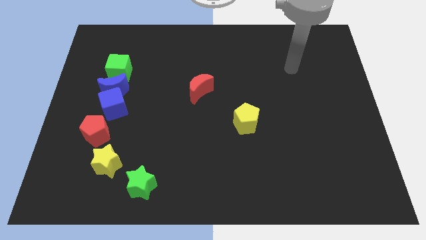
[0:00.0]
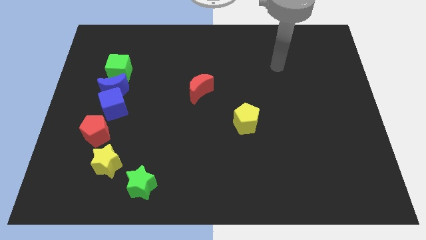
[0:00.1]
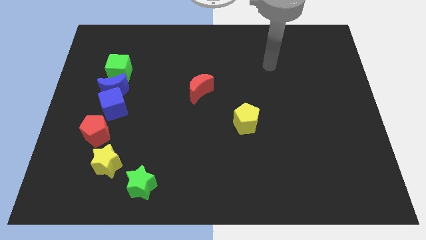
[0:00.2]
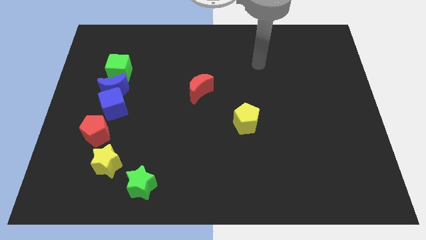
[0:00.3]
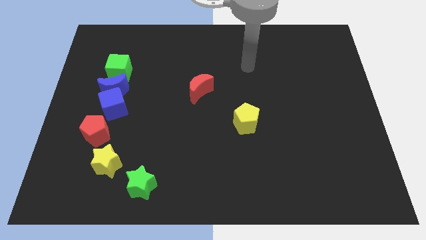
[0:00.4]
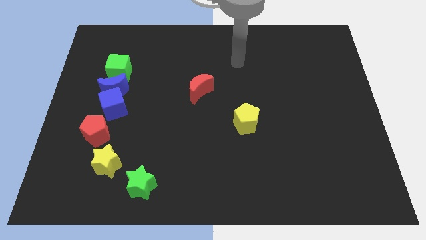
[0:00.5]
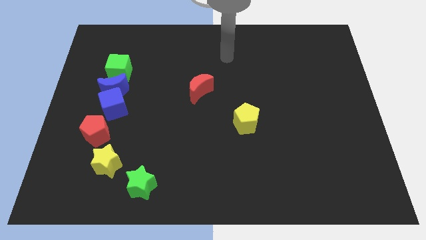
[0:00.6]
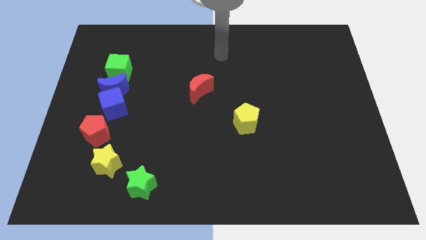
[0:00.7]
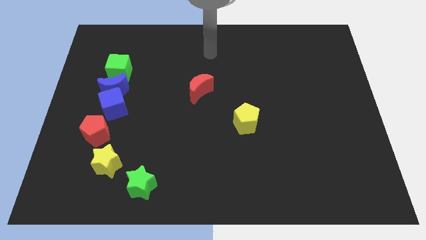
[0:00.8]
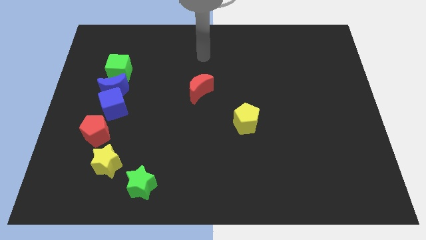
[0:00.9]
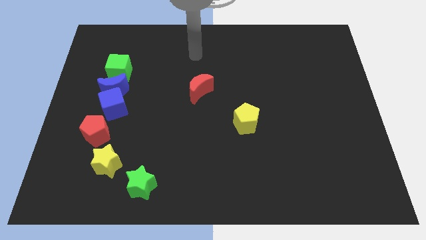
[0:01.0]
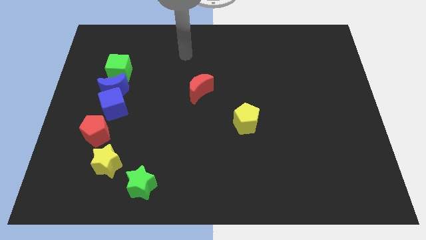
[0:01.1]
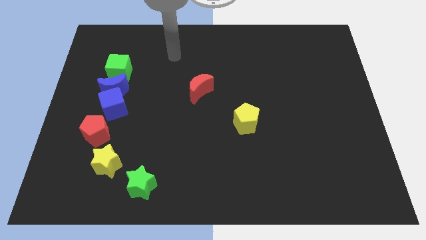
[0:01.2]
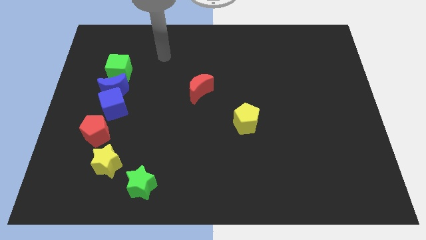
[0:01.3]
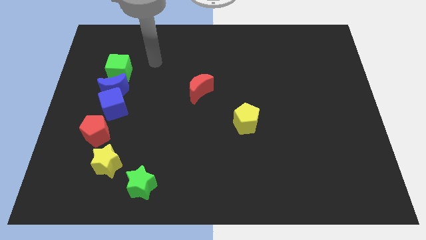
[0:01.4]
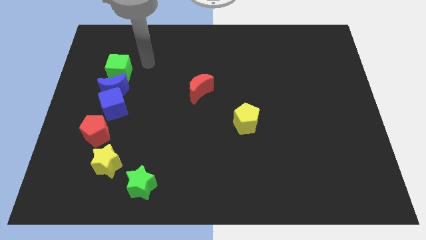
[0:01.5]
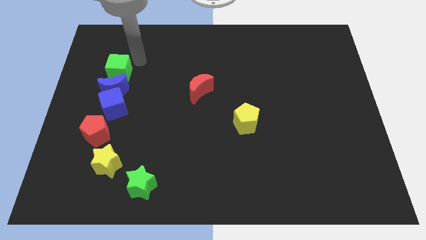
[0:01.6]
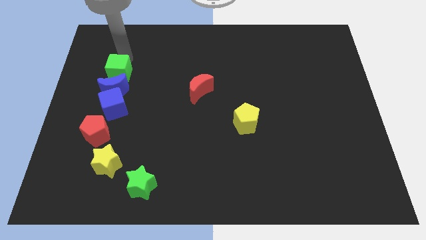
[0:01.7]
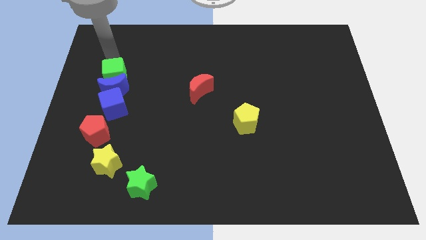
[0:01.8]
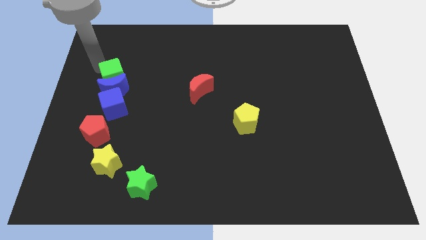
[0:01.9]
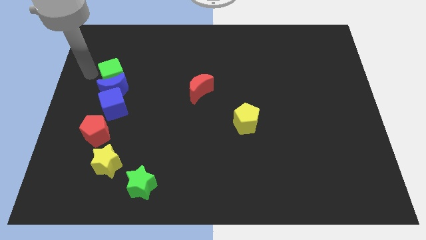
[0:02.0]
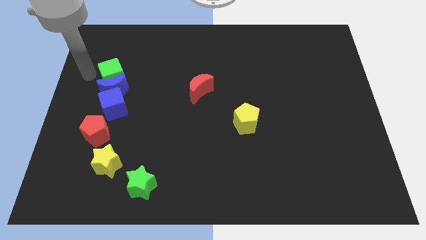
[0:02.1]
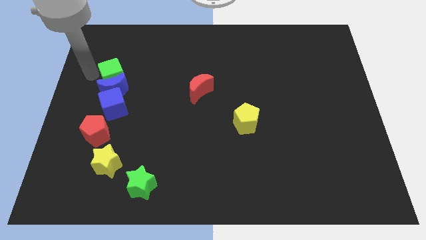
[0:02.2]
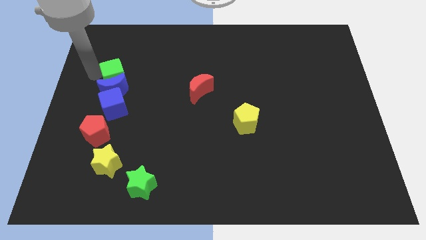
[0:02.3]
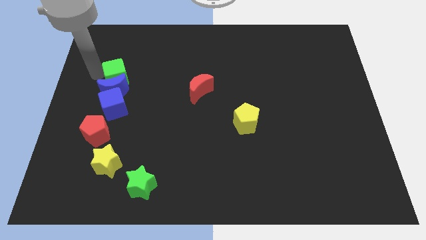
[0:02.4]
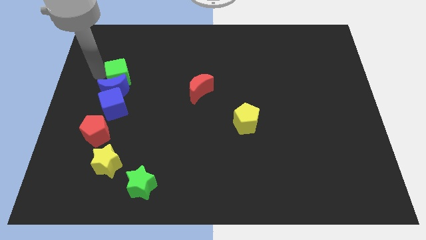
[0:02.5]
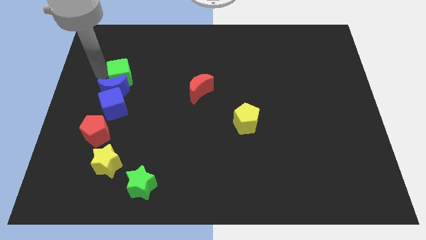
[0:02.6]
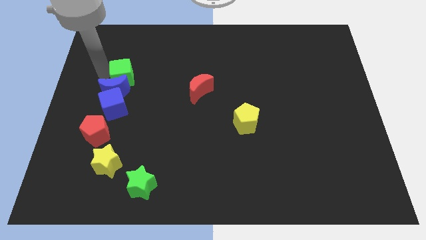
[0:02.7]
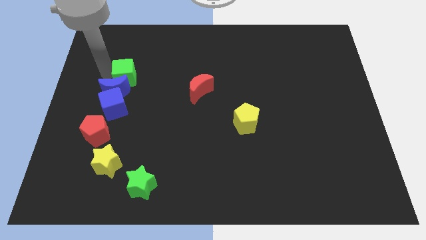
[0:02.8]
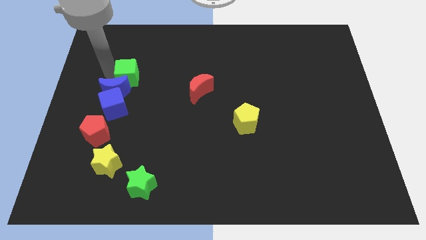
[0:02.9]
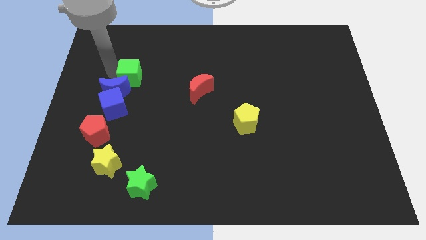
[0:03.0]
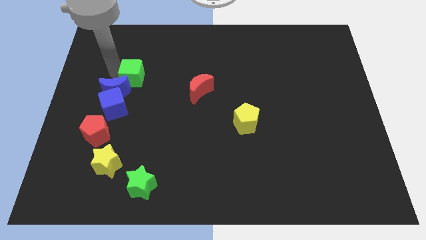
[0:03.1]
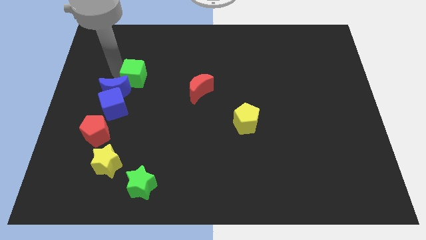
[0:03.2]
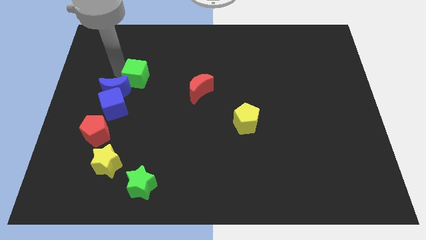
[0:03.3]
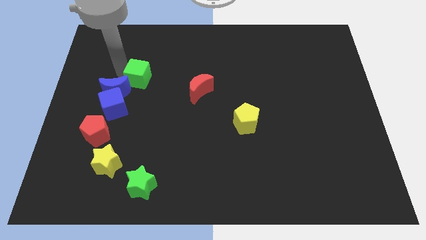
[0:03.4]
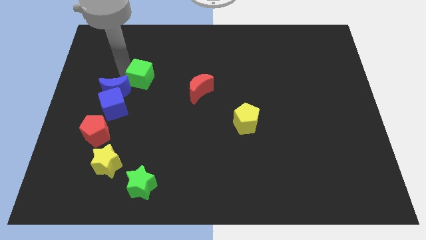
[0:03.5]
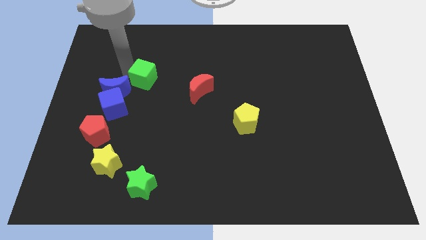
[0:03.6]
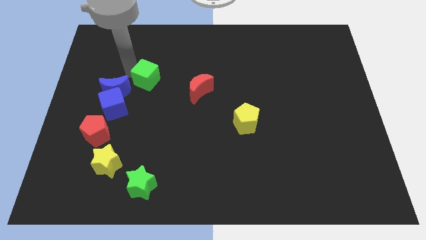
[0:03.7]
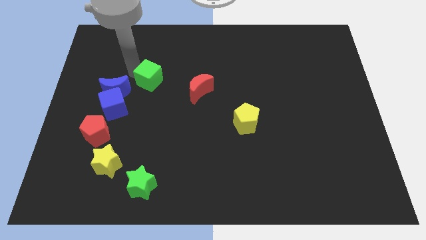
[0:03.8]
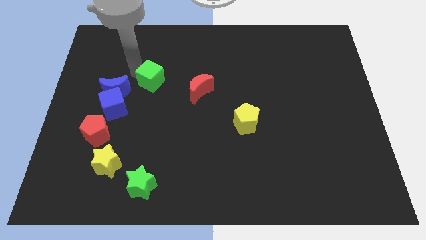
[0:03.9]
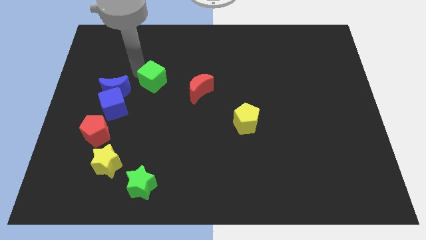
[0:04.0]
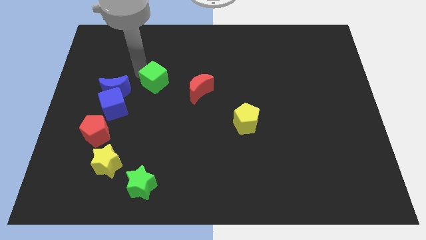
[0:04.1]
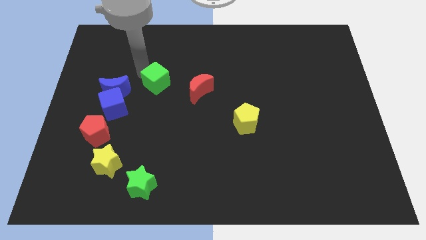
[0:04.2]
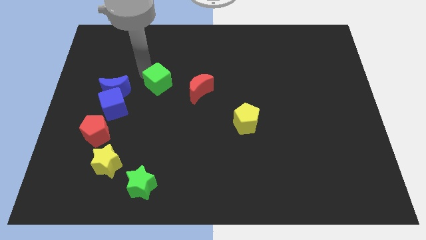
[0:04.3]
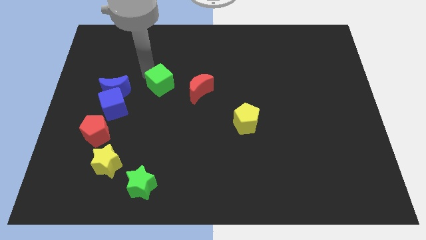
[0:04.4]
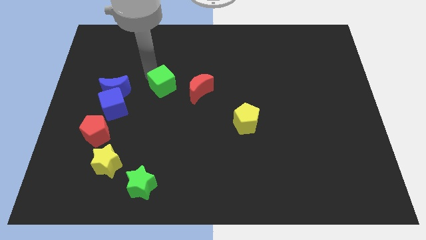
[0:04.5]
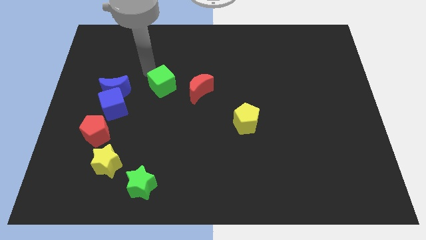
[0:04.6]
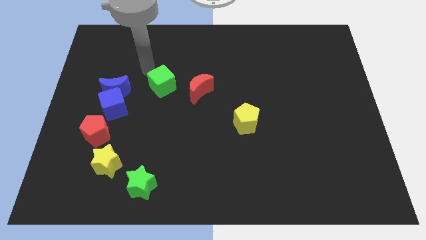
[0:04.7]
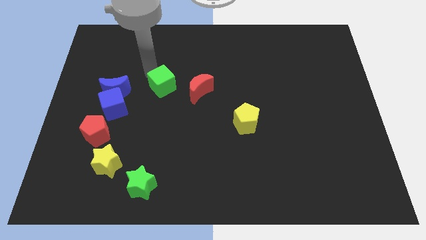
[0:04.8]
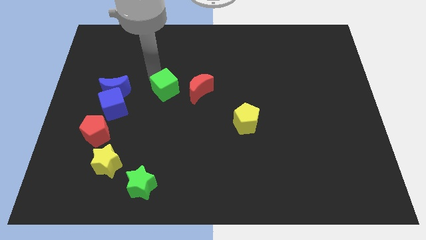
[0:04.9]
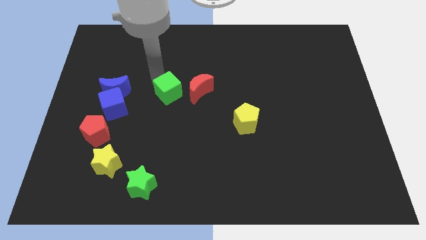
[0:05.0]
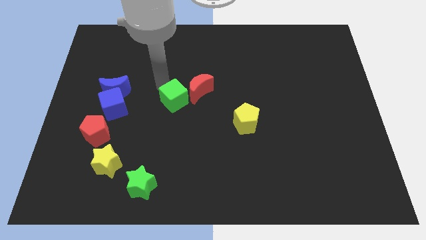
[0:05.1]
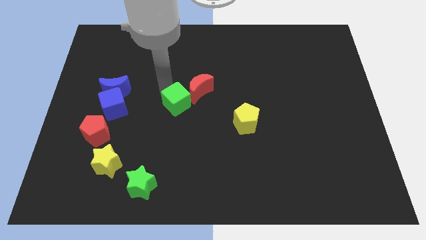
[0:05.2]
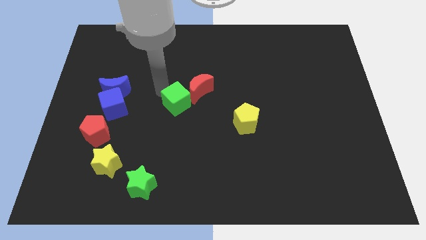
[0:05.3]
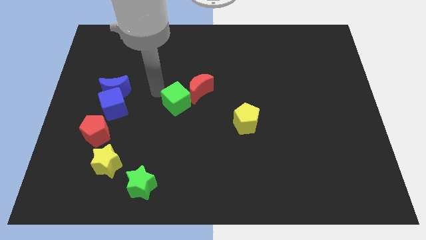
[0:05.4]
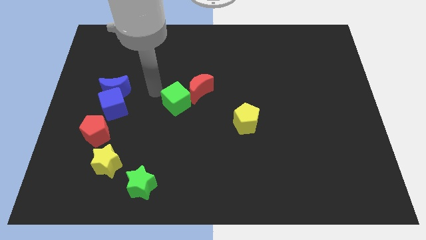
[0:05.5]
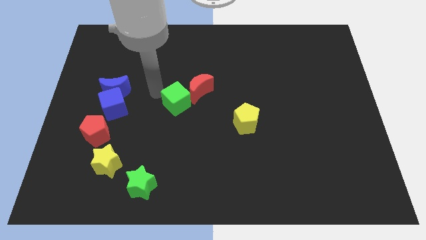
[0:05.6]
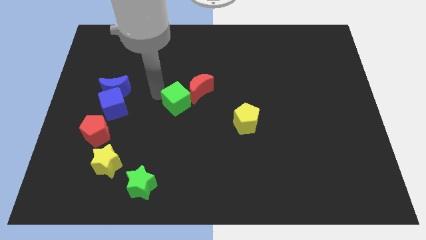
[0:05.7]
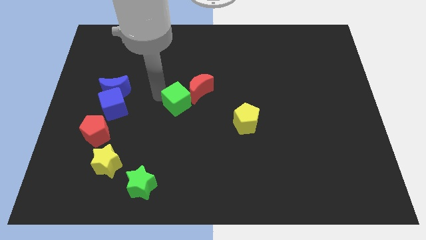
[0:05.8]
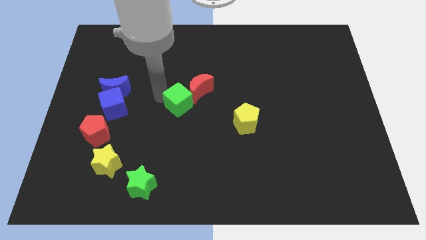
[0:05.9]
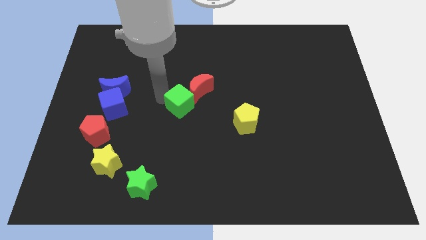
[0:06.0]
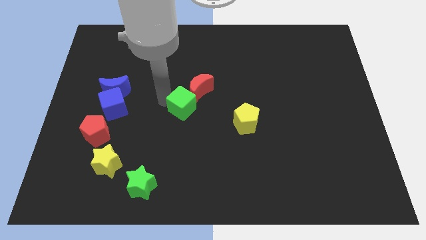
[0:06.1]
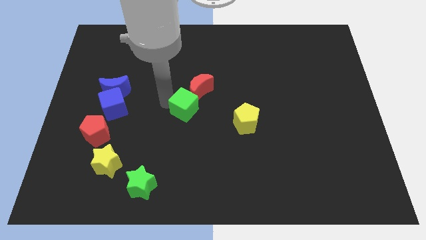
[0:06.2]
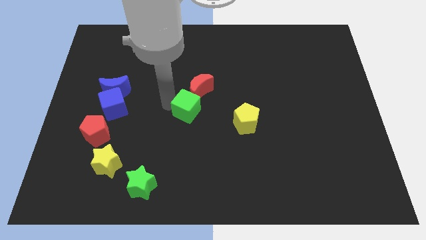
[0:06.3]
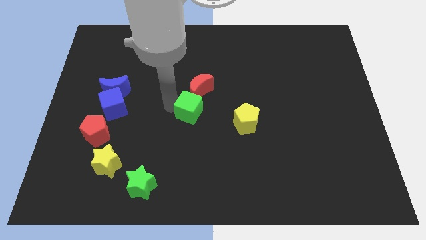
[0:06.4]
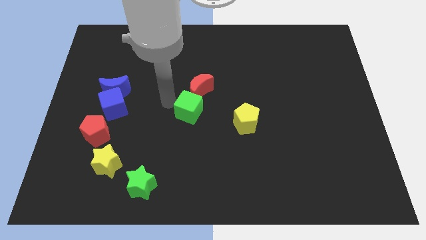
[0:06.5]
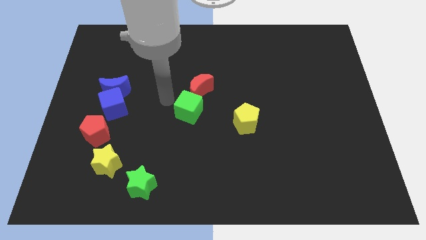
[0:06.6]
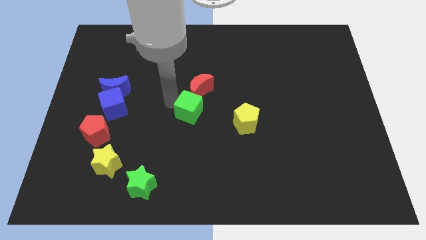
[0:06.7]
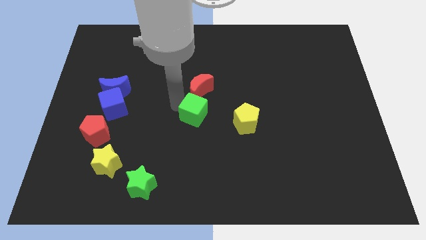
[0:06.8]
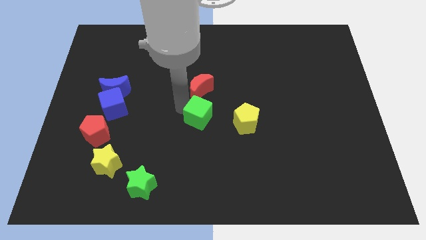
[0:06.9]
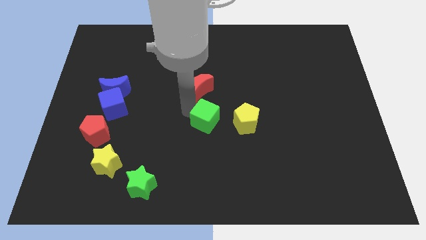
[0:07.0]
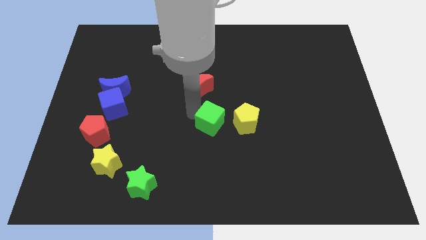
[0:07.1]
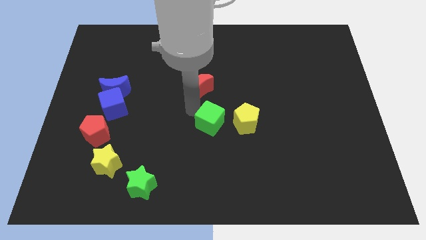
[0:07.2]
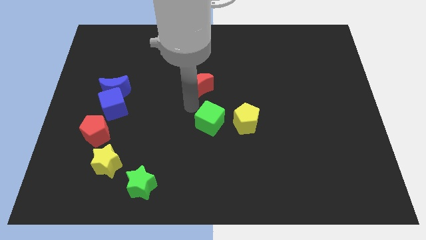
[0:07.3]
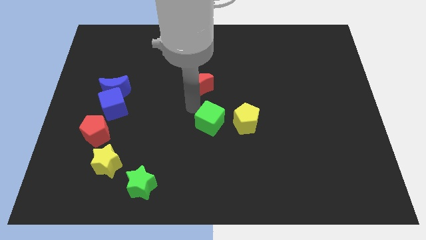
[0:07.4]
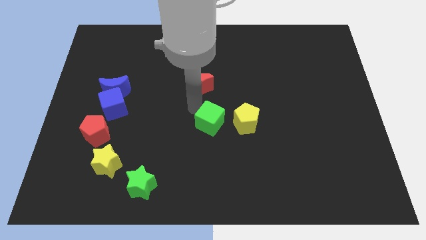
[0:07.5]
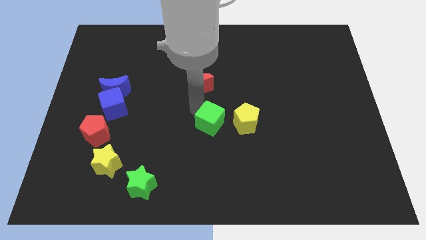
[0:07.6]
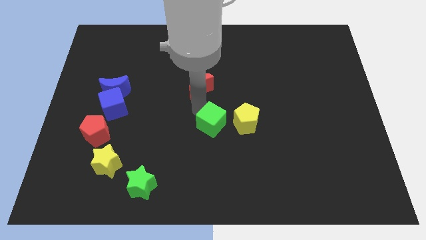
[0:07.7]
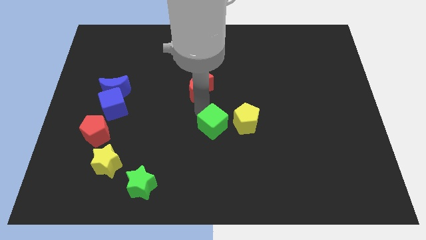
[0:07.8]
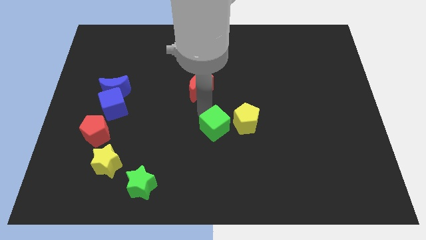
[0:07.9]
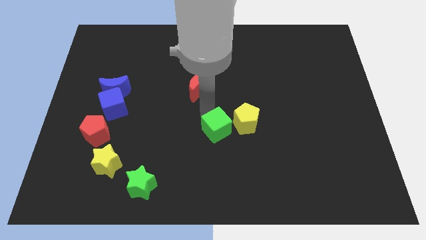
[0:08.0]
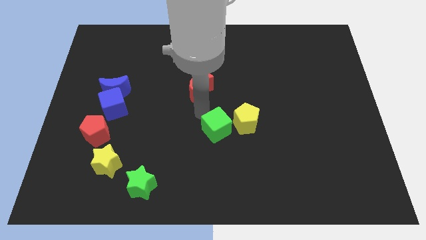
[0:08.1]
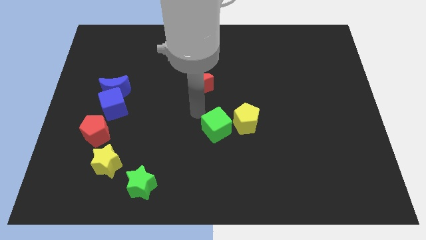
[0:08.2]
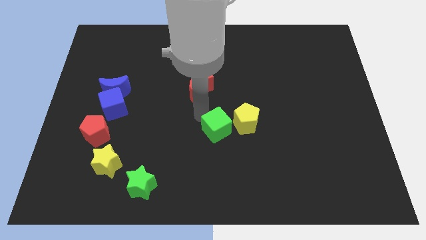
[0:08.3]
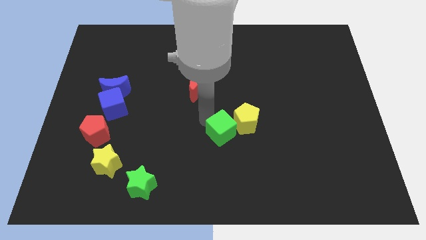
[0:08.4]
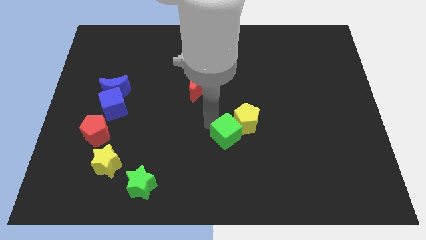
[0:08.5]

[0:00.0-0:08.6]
push the green cube below the yellow pentagon
